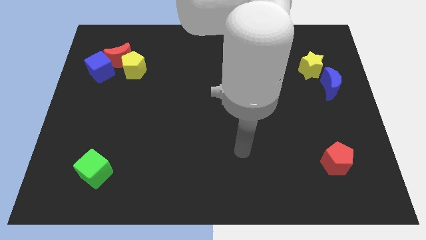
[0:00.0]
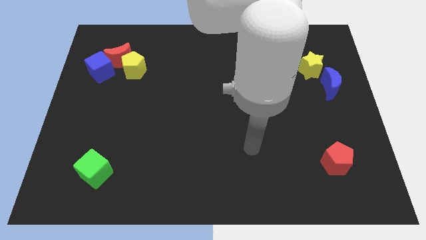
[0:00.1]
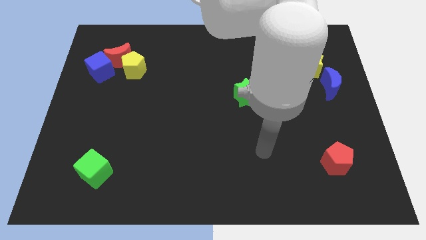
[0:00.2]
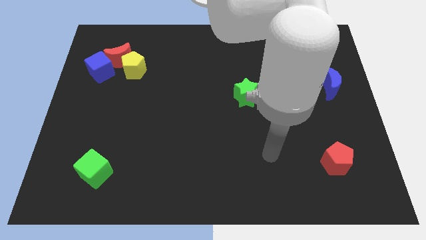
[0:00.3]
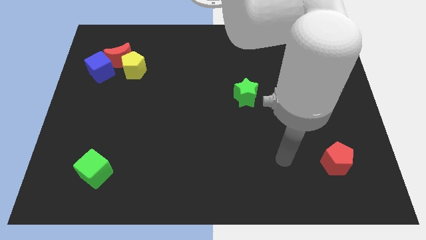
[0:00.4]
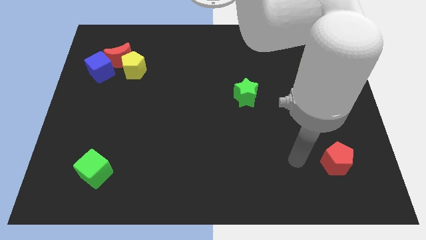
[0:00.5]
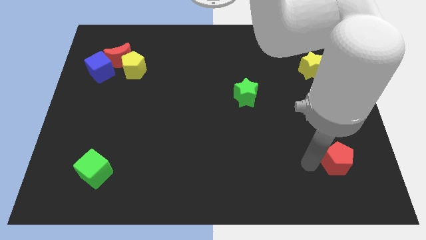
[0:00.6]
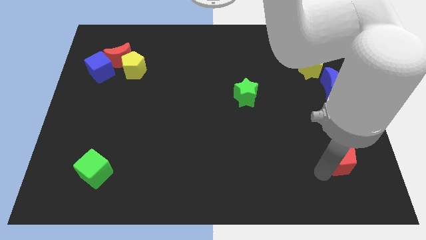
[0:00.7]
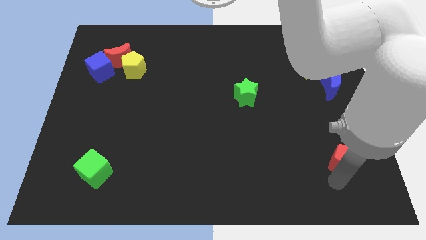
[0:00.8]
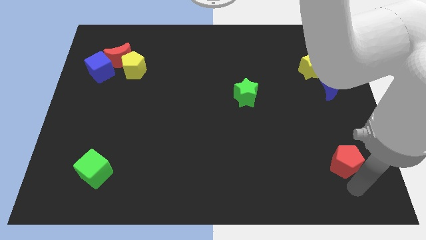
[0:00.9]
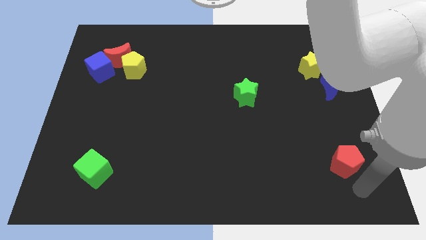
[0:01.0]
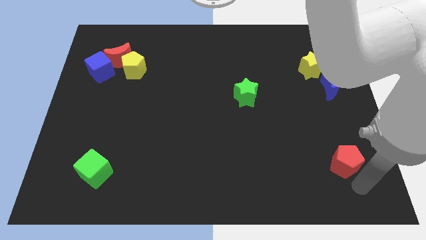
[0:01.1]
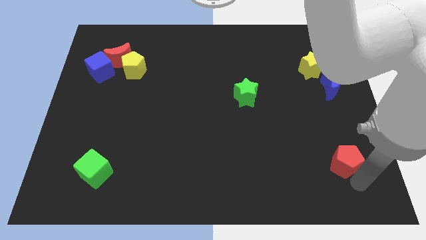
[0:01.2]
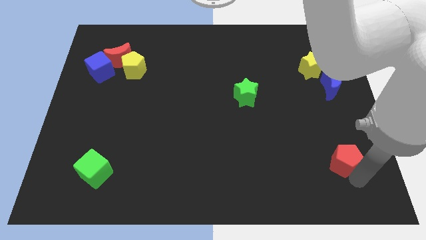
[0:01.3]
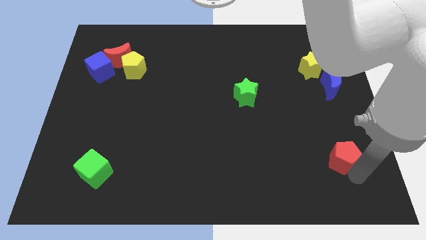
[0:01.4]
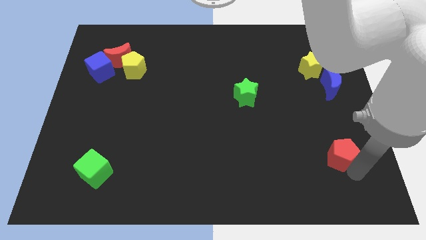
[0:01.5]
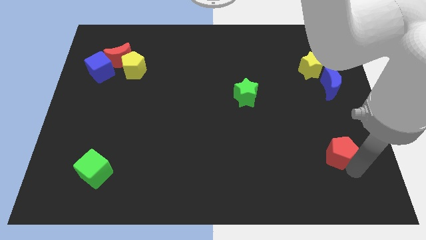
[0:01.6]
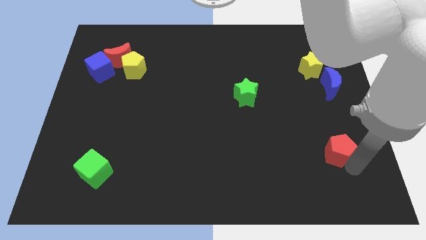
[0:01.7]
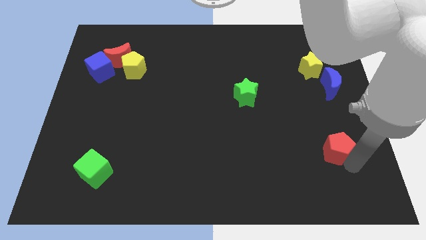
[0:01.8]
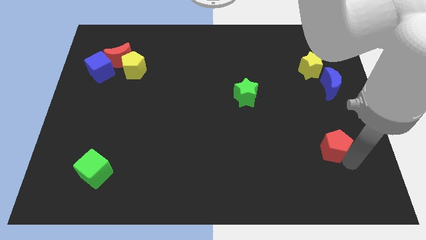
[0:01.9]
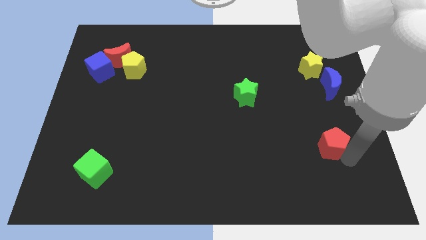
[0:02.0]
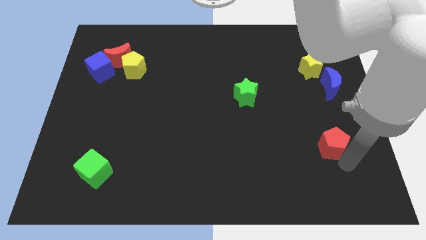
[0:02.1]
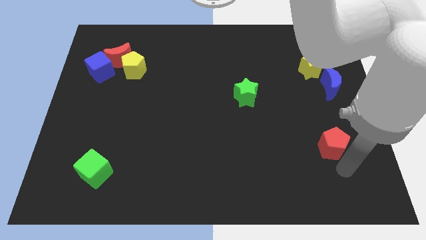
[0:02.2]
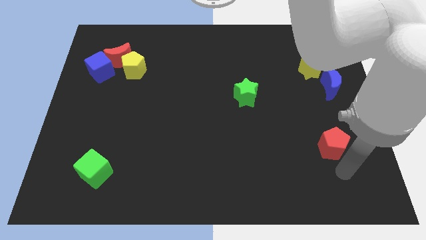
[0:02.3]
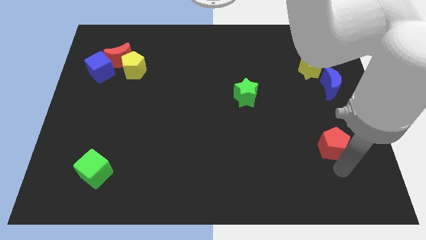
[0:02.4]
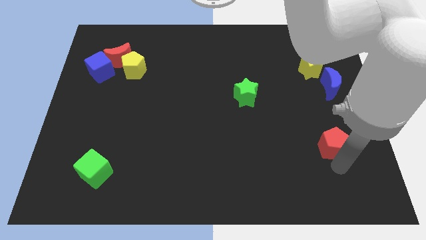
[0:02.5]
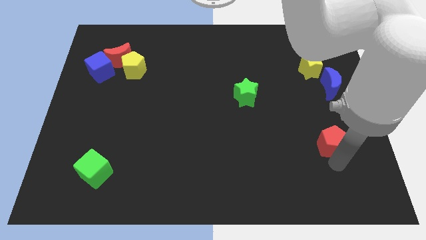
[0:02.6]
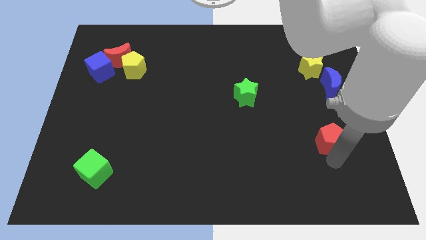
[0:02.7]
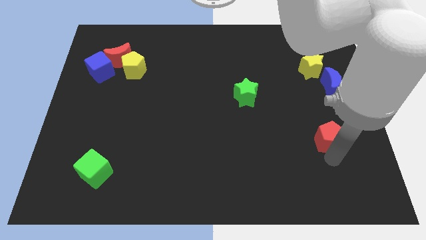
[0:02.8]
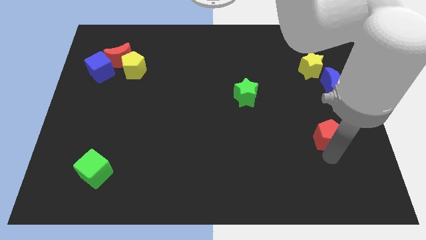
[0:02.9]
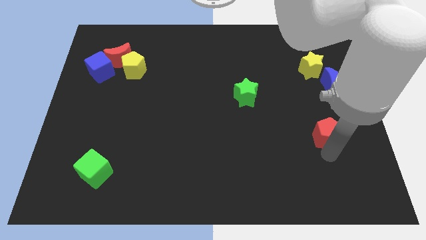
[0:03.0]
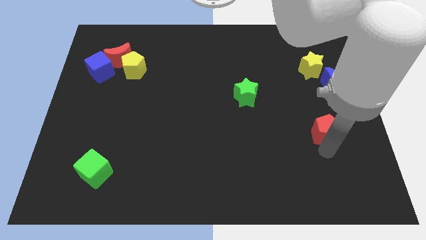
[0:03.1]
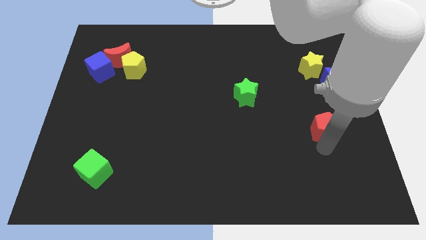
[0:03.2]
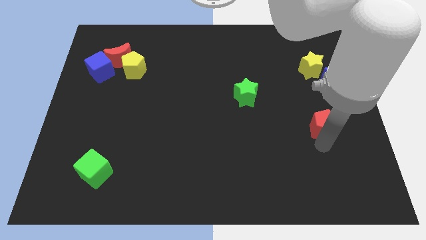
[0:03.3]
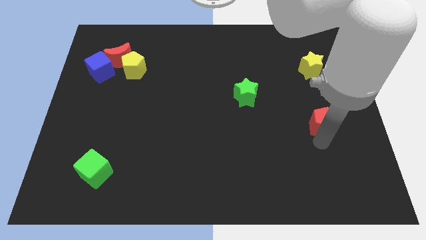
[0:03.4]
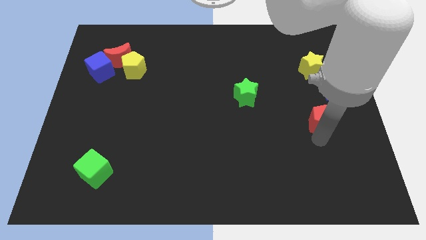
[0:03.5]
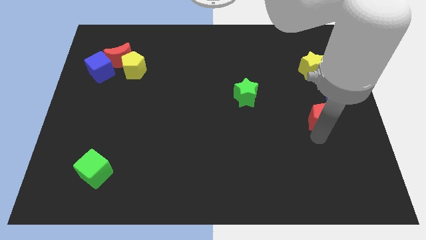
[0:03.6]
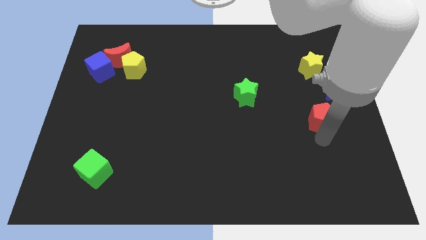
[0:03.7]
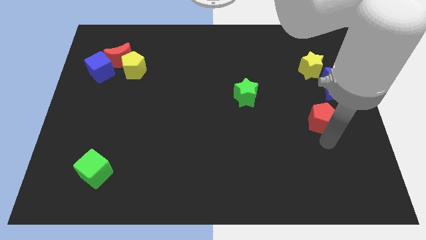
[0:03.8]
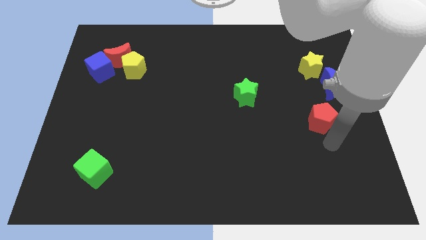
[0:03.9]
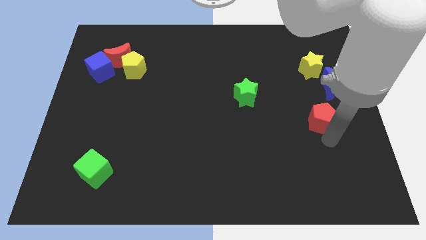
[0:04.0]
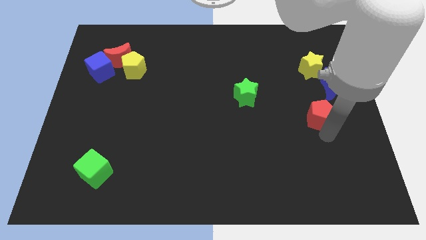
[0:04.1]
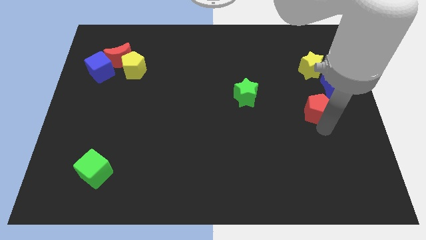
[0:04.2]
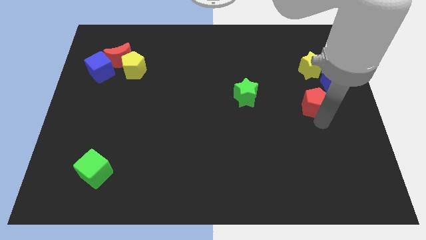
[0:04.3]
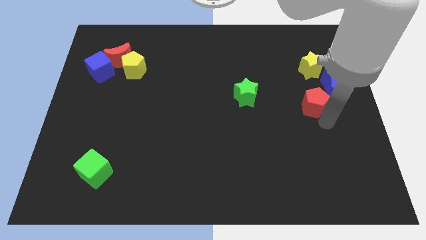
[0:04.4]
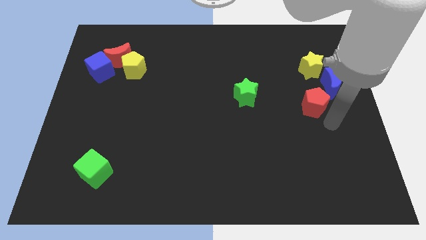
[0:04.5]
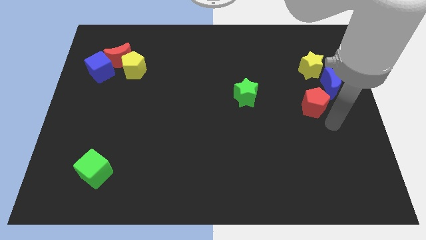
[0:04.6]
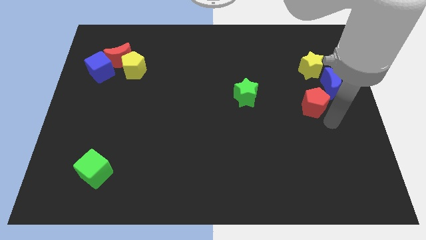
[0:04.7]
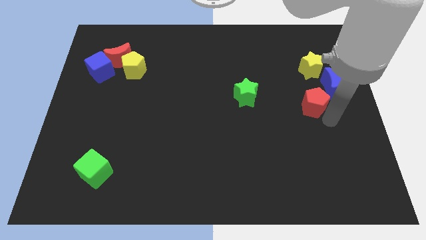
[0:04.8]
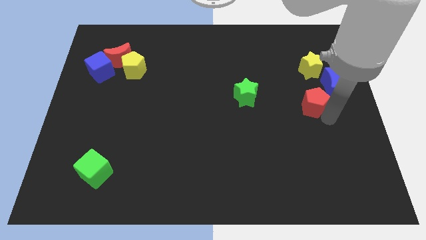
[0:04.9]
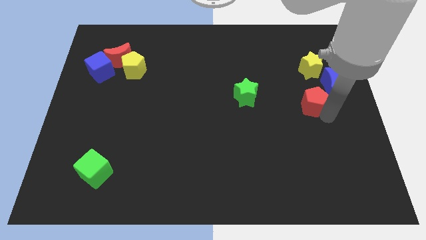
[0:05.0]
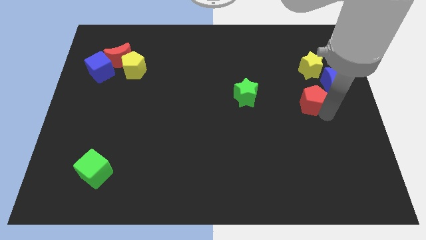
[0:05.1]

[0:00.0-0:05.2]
put the red pentagon to the left side of the blue moon

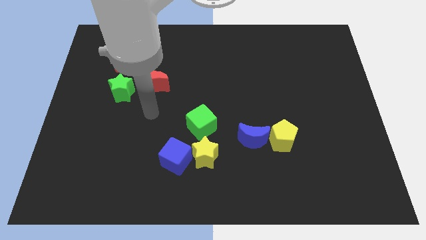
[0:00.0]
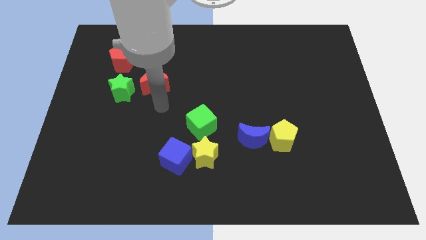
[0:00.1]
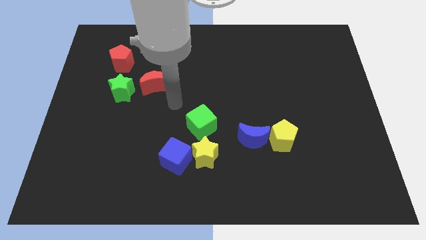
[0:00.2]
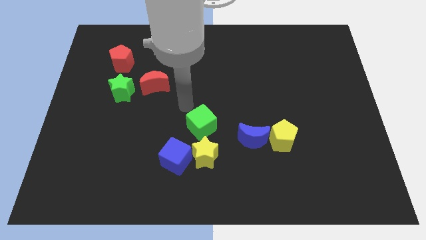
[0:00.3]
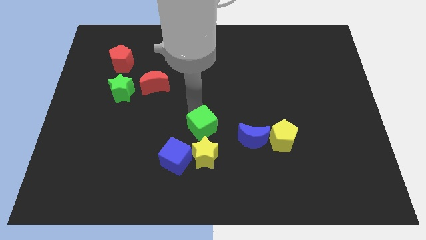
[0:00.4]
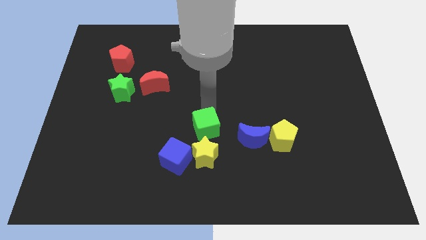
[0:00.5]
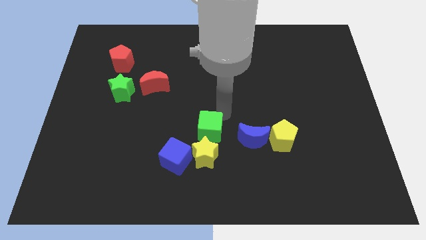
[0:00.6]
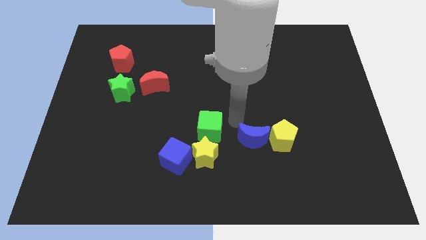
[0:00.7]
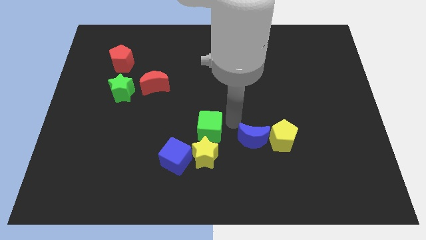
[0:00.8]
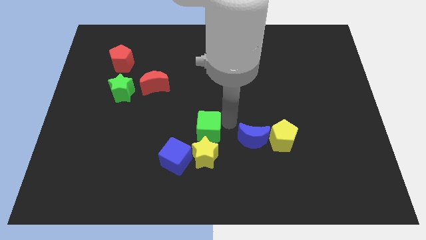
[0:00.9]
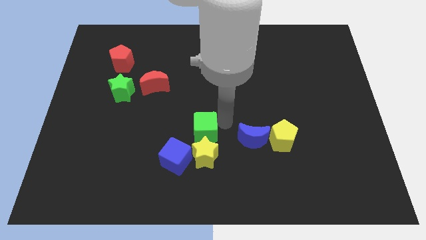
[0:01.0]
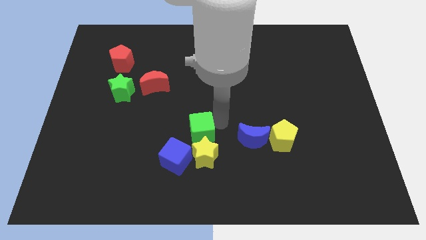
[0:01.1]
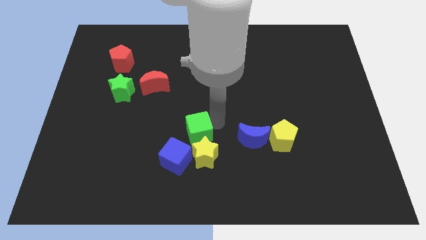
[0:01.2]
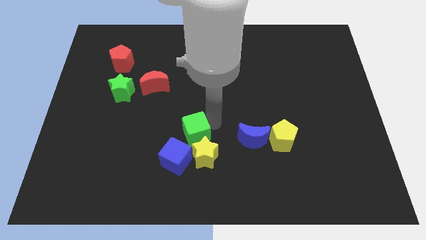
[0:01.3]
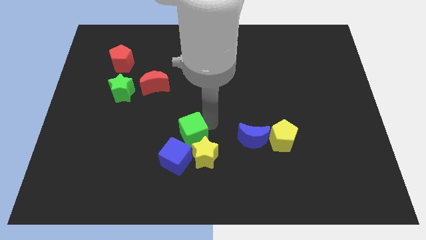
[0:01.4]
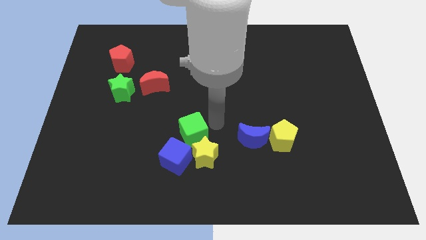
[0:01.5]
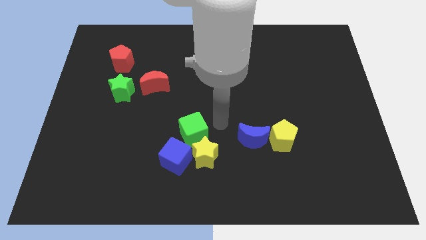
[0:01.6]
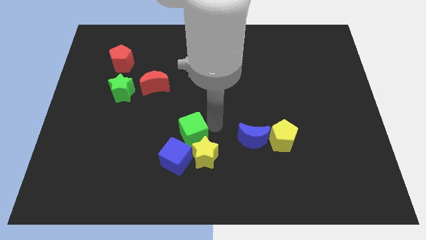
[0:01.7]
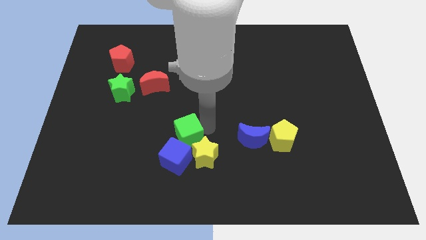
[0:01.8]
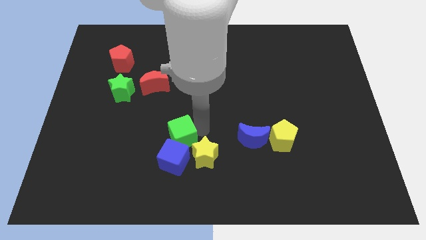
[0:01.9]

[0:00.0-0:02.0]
slide the green cube to the left side of the yellow star

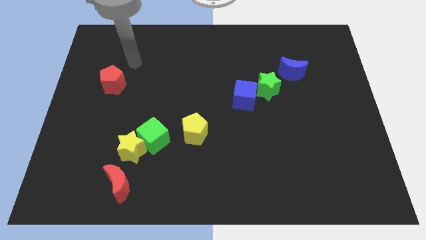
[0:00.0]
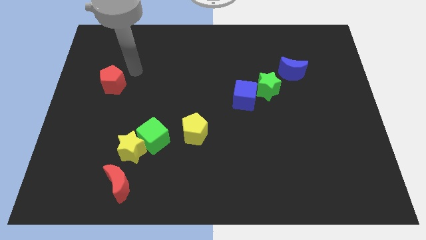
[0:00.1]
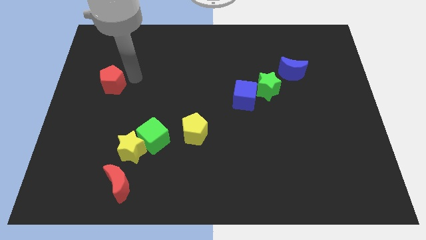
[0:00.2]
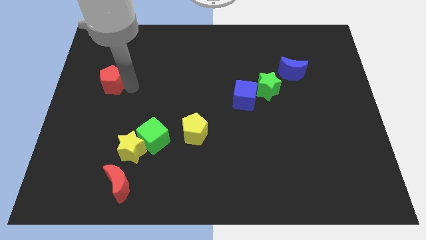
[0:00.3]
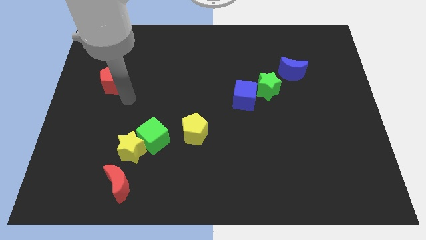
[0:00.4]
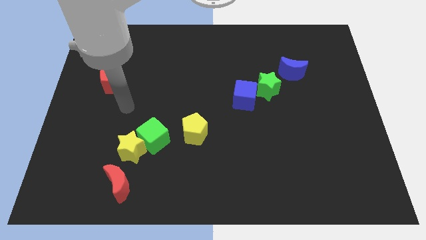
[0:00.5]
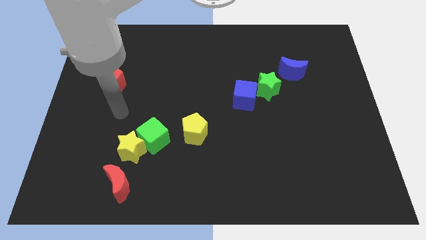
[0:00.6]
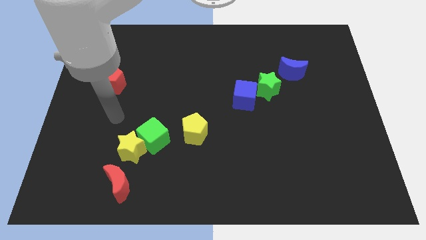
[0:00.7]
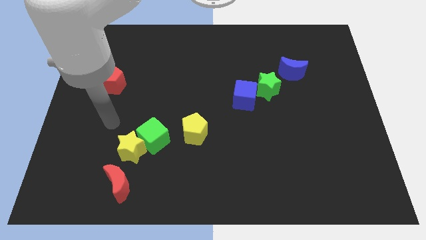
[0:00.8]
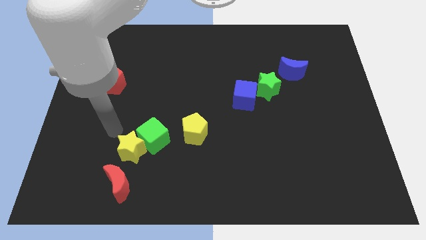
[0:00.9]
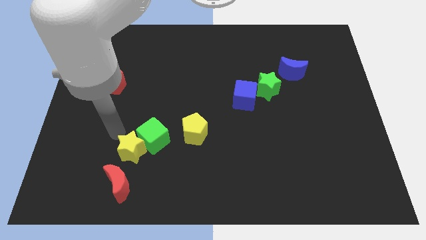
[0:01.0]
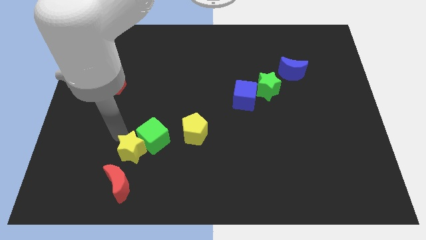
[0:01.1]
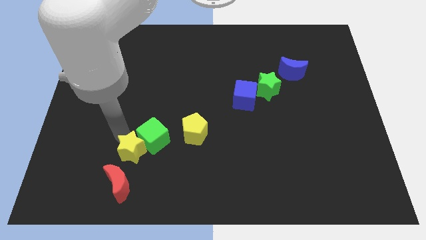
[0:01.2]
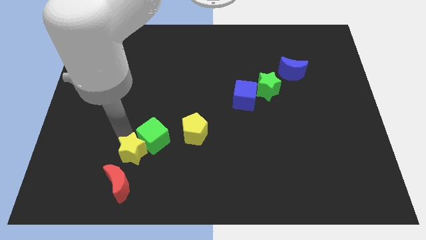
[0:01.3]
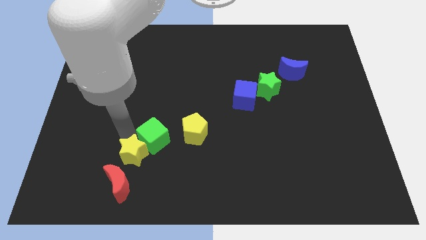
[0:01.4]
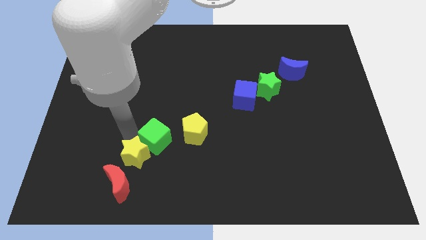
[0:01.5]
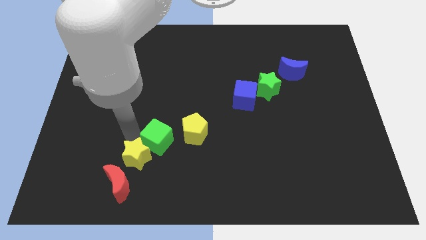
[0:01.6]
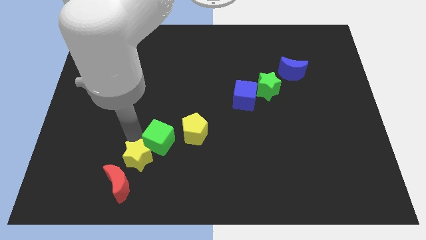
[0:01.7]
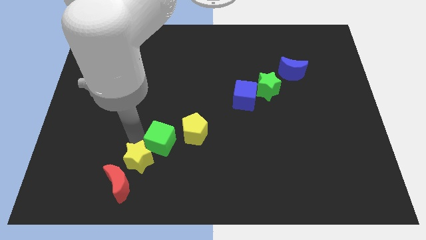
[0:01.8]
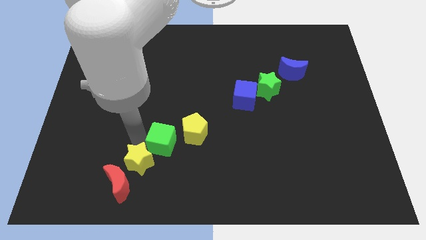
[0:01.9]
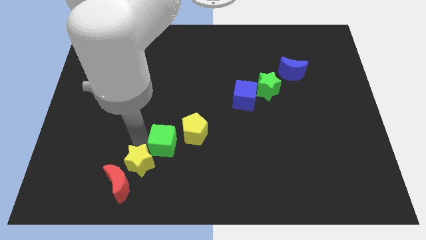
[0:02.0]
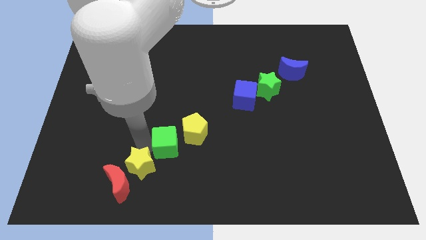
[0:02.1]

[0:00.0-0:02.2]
move the yellow star right of the red moon
